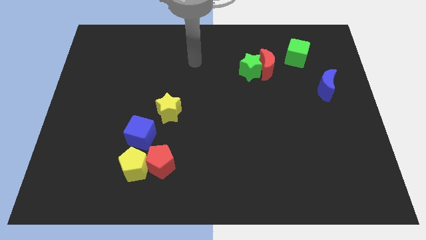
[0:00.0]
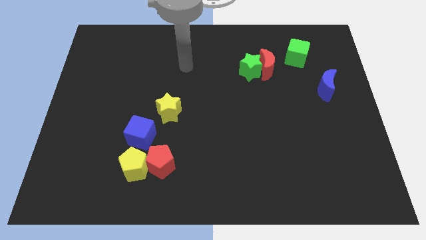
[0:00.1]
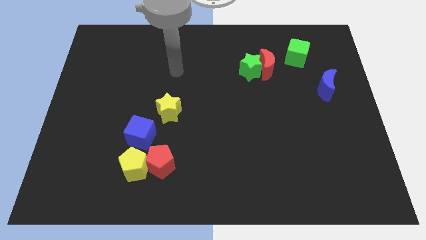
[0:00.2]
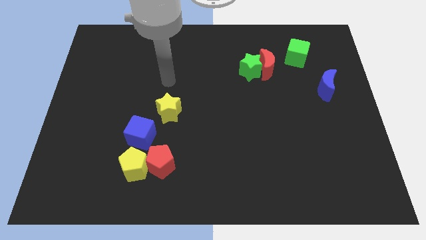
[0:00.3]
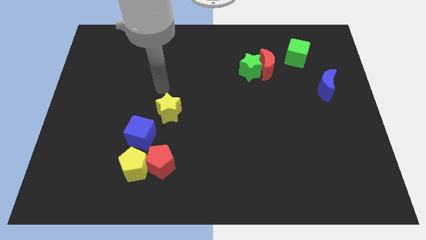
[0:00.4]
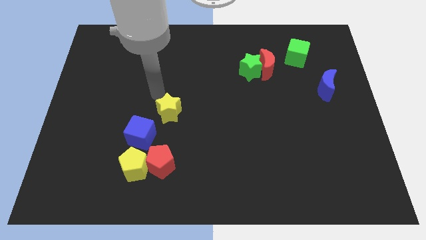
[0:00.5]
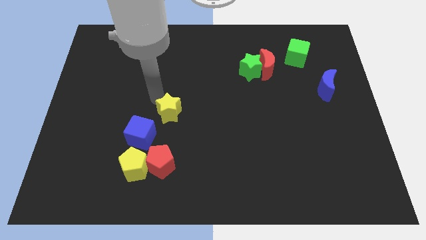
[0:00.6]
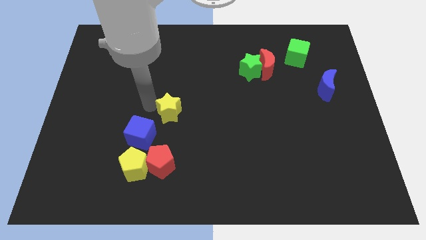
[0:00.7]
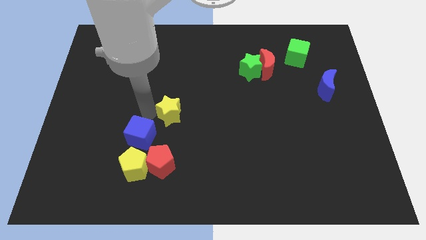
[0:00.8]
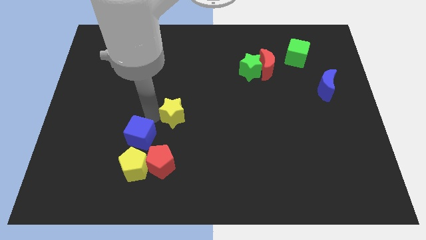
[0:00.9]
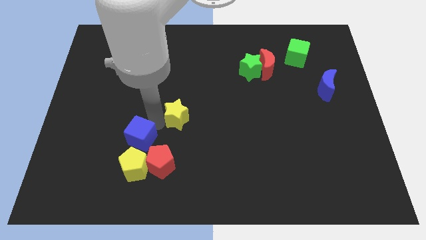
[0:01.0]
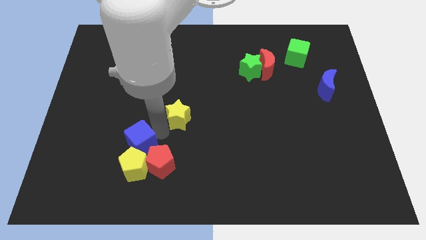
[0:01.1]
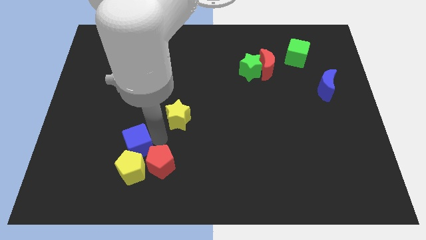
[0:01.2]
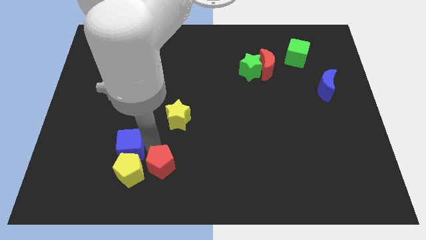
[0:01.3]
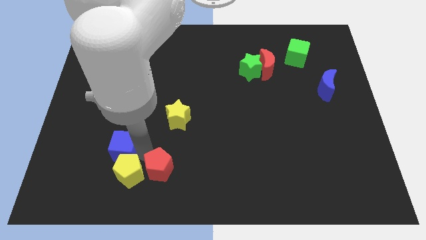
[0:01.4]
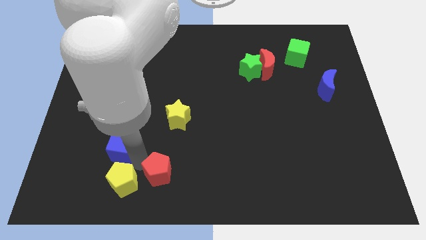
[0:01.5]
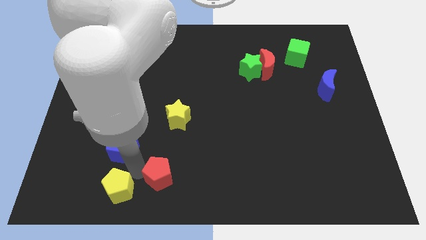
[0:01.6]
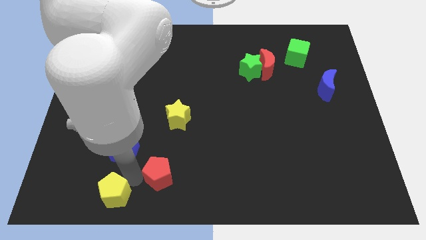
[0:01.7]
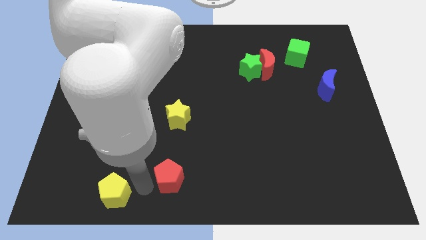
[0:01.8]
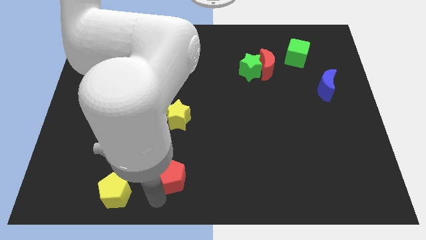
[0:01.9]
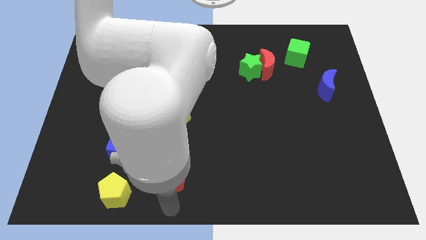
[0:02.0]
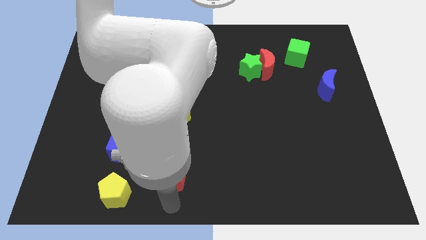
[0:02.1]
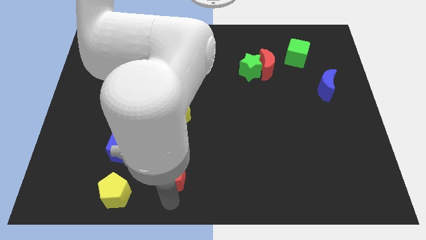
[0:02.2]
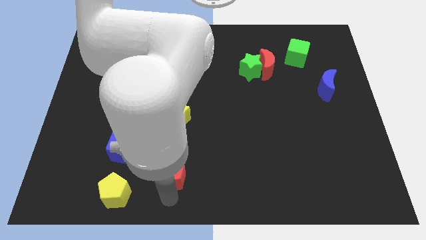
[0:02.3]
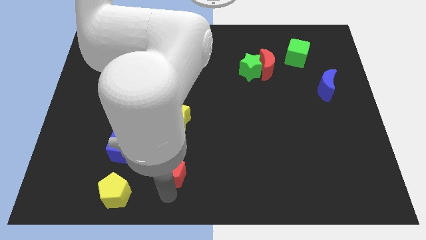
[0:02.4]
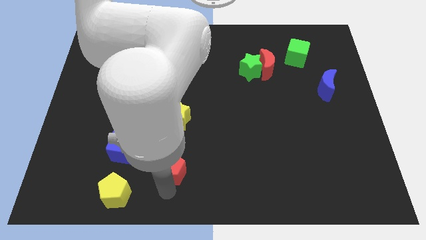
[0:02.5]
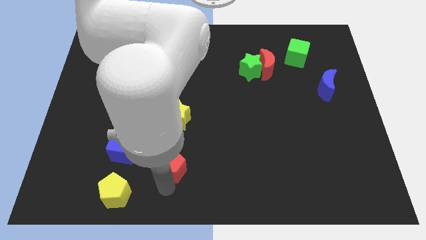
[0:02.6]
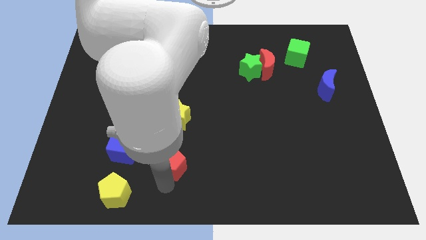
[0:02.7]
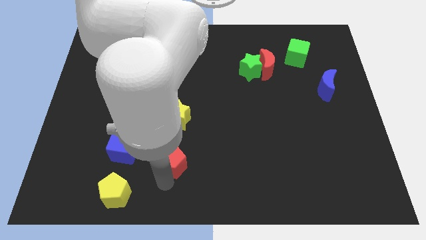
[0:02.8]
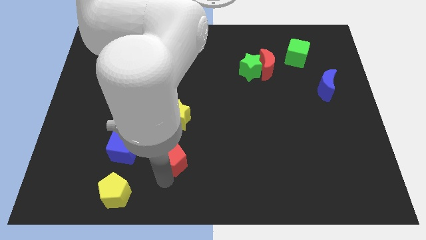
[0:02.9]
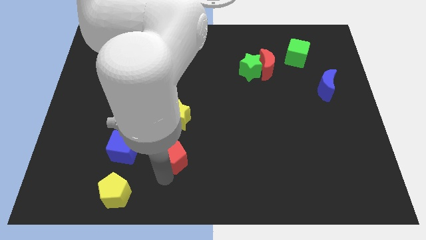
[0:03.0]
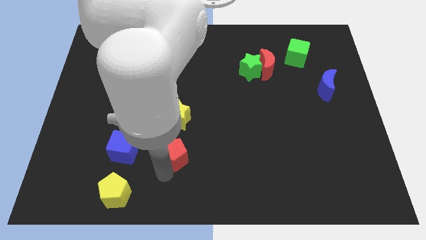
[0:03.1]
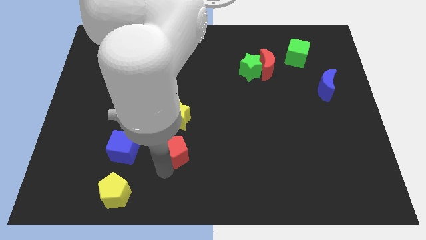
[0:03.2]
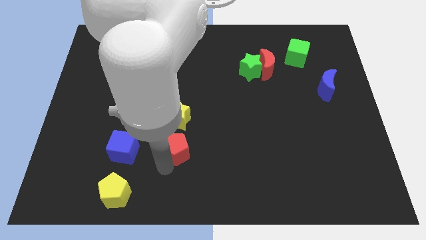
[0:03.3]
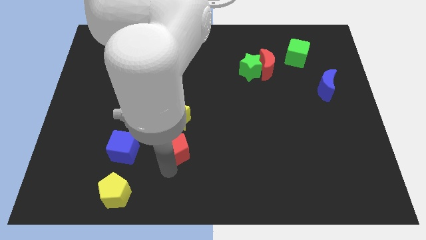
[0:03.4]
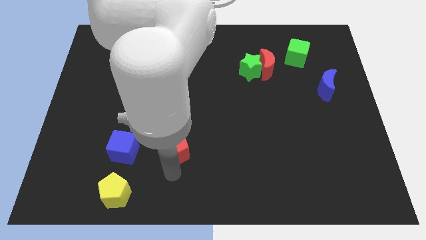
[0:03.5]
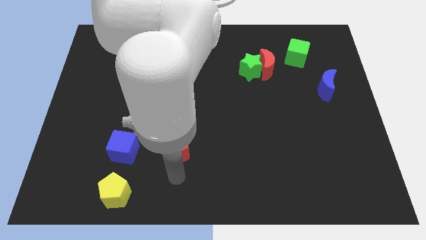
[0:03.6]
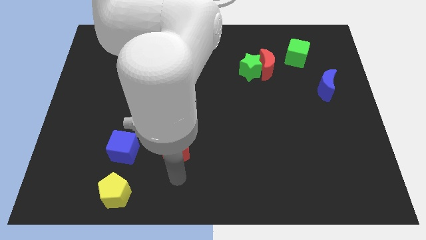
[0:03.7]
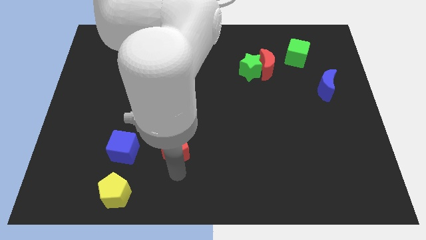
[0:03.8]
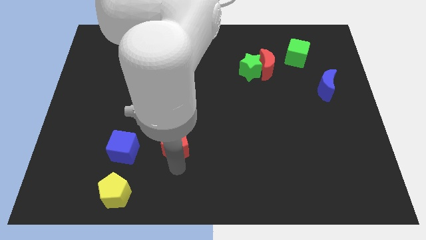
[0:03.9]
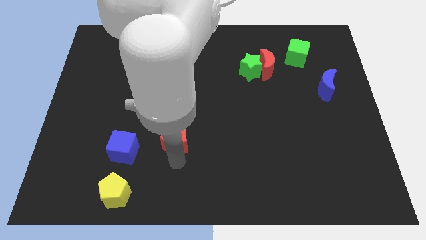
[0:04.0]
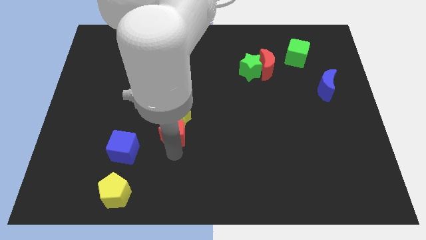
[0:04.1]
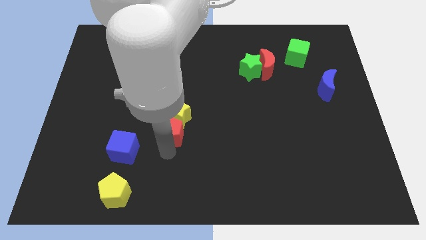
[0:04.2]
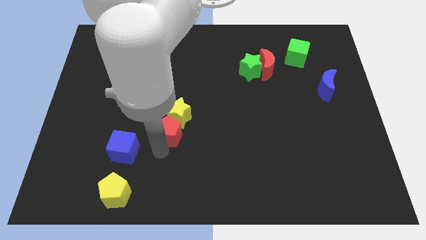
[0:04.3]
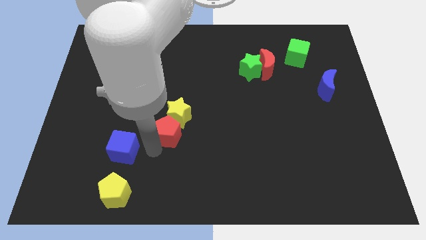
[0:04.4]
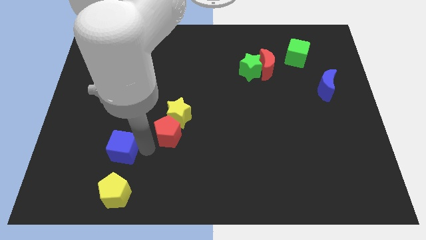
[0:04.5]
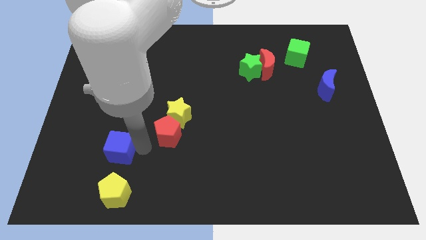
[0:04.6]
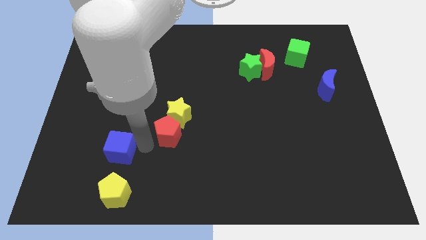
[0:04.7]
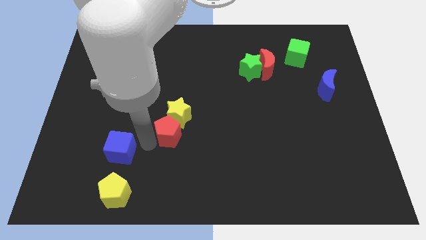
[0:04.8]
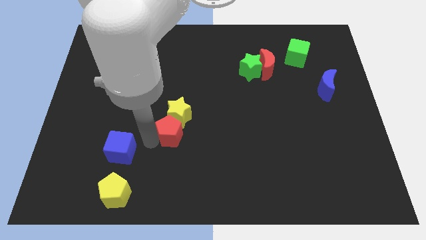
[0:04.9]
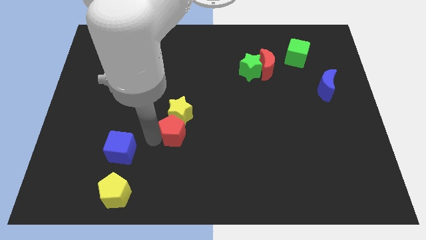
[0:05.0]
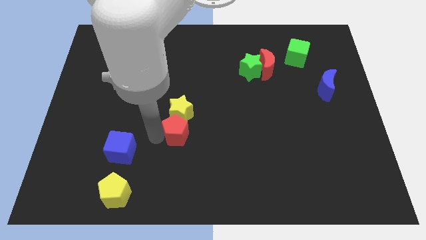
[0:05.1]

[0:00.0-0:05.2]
slide the red pentagon to the center

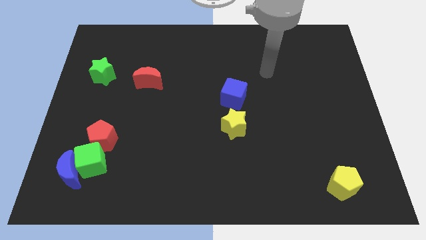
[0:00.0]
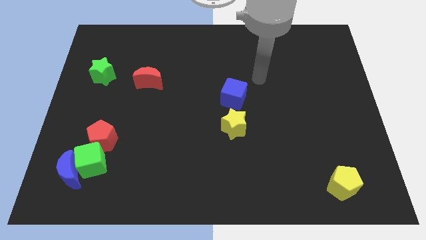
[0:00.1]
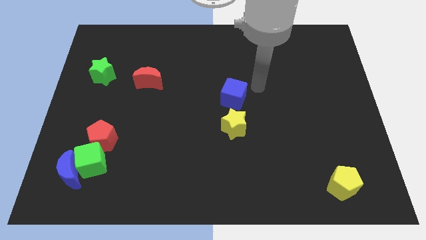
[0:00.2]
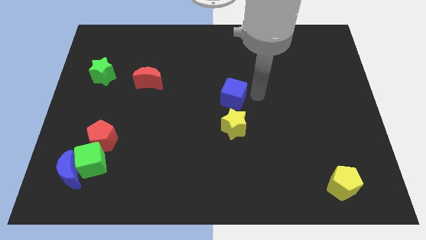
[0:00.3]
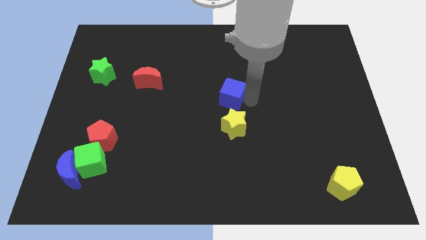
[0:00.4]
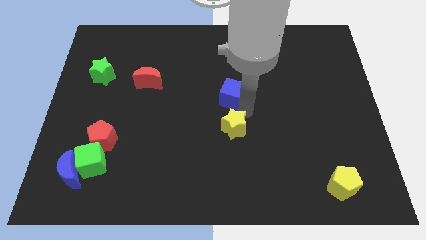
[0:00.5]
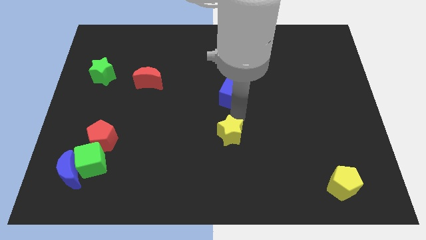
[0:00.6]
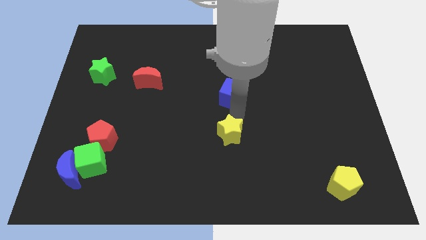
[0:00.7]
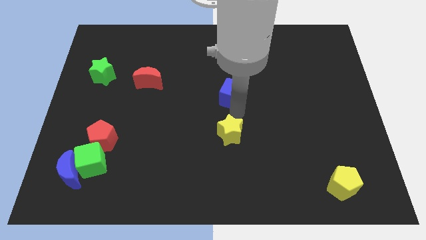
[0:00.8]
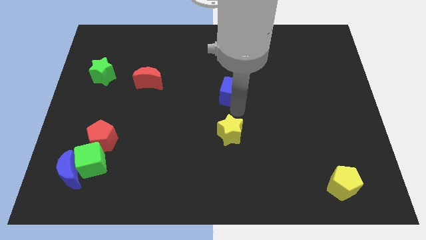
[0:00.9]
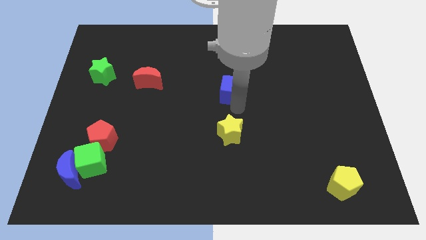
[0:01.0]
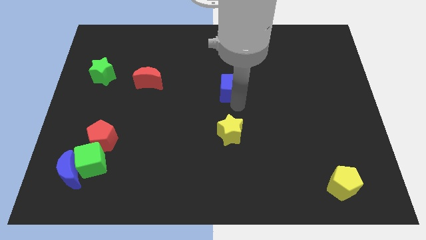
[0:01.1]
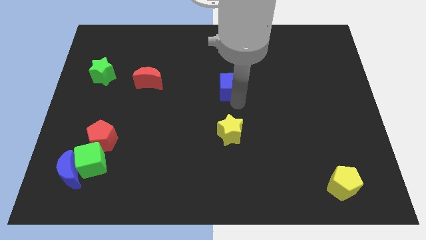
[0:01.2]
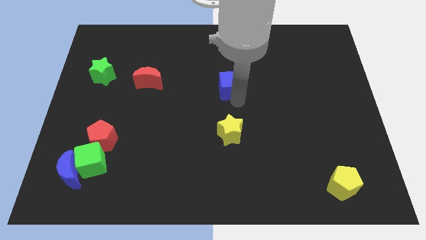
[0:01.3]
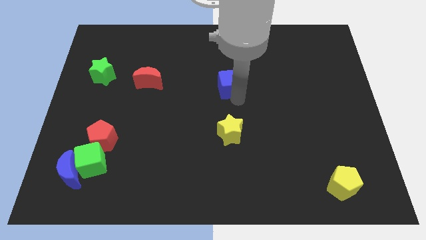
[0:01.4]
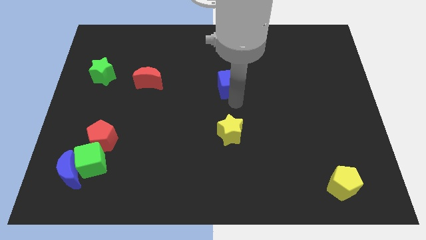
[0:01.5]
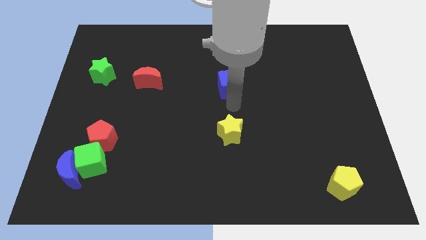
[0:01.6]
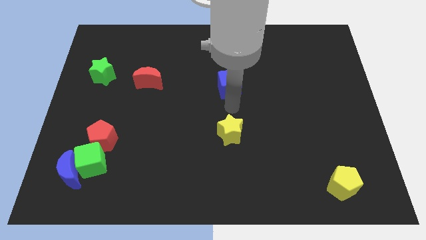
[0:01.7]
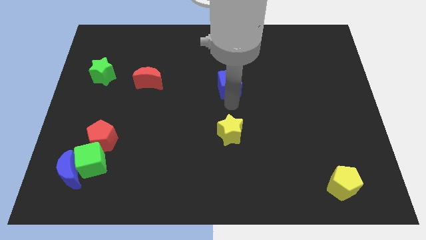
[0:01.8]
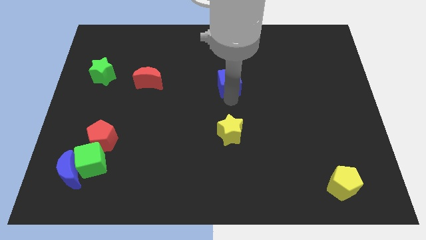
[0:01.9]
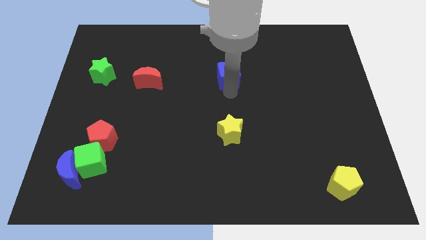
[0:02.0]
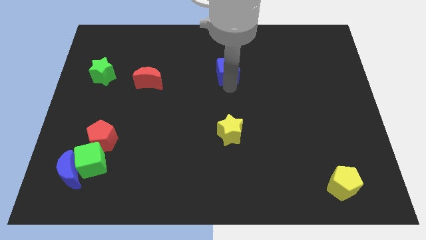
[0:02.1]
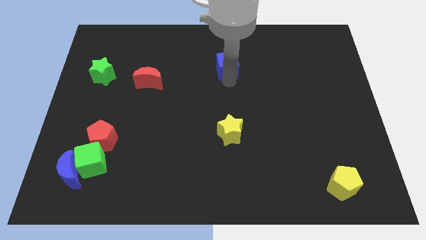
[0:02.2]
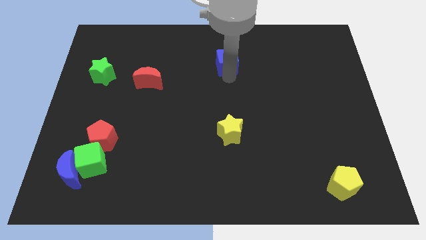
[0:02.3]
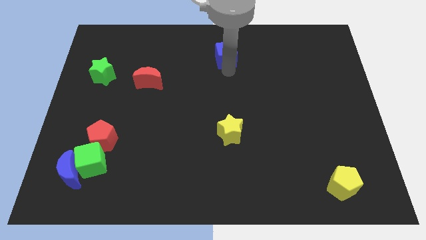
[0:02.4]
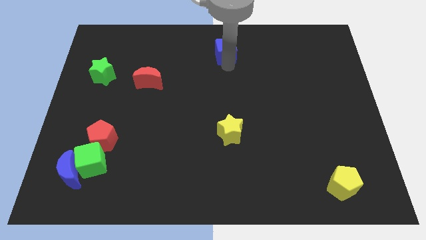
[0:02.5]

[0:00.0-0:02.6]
put the blue cube to the top
